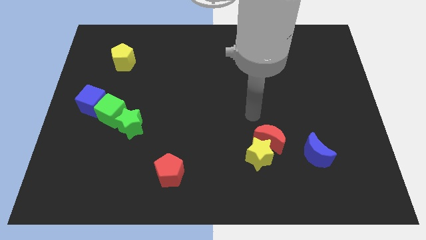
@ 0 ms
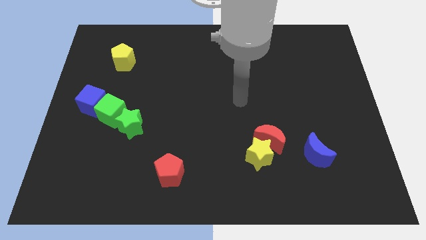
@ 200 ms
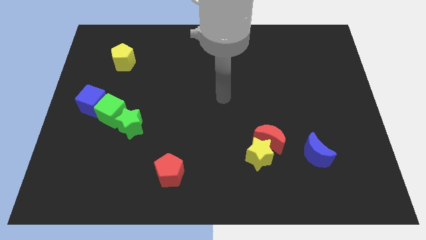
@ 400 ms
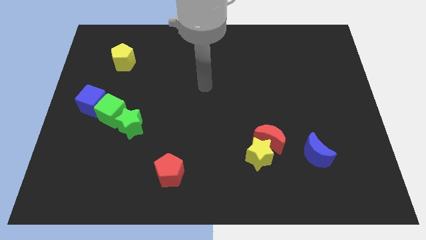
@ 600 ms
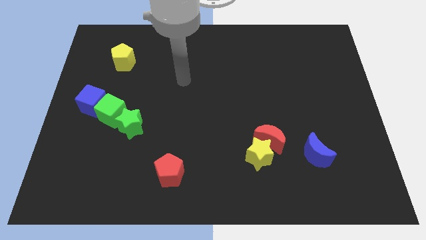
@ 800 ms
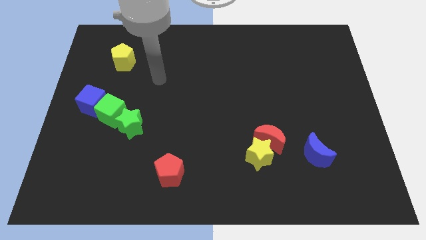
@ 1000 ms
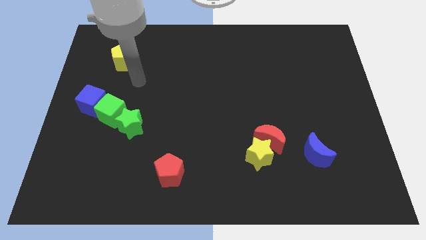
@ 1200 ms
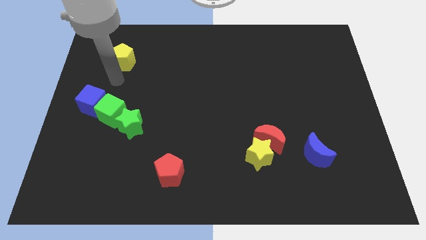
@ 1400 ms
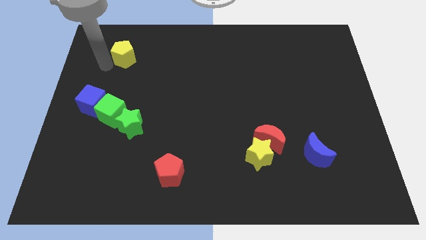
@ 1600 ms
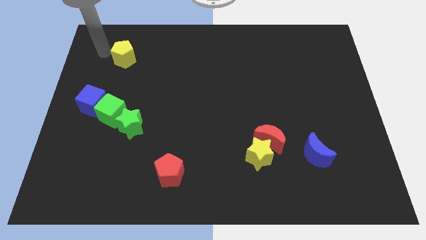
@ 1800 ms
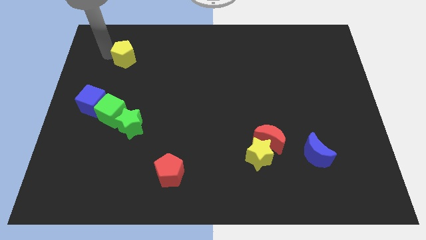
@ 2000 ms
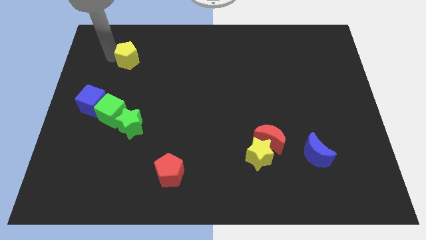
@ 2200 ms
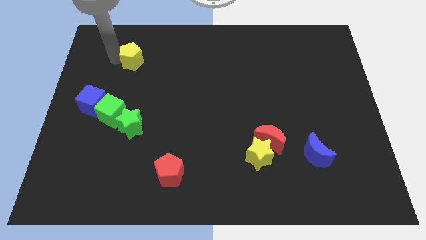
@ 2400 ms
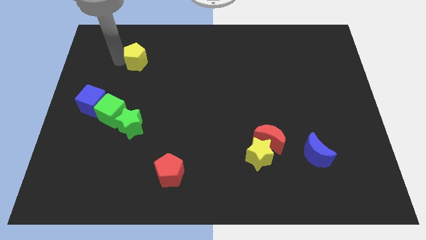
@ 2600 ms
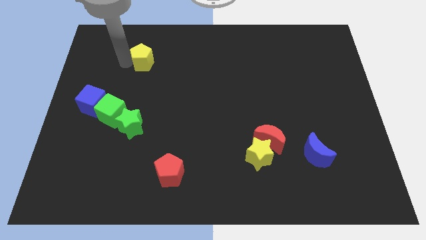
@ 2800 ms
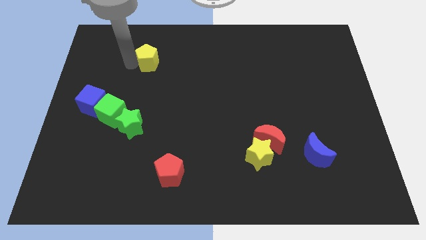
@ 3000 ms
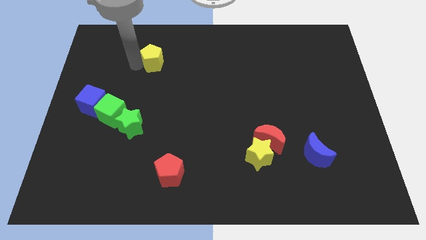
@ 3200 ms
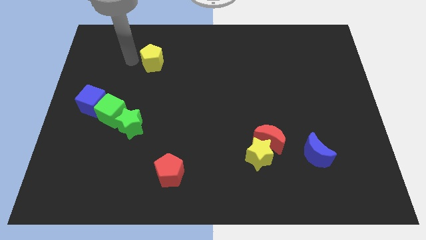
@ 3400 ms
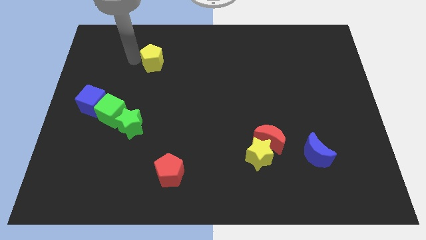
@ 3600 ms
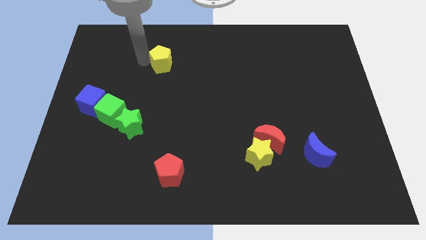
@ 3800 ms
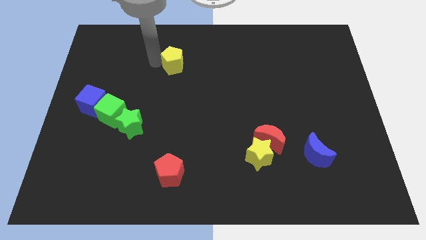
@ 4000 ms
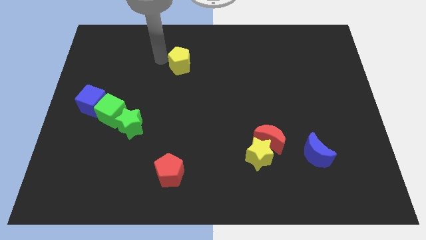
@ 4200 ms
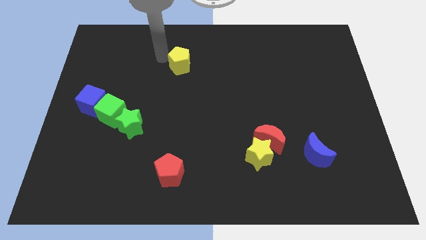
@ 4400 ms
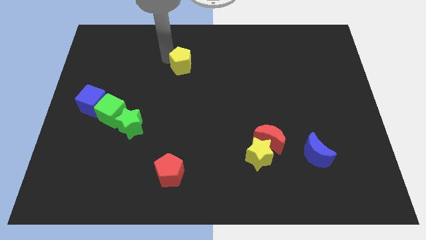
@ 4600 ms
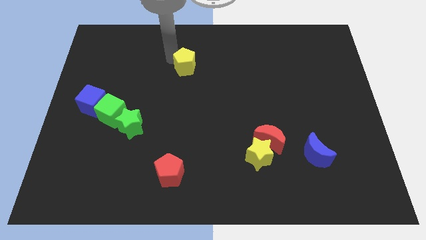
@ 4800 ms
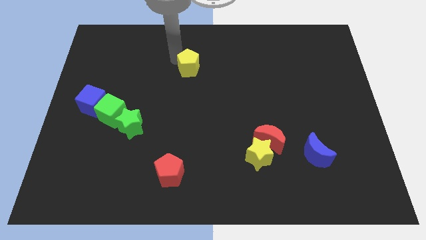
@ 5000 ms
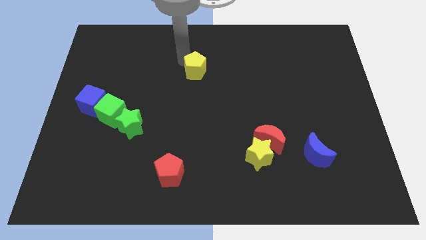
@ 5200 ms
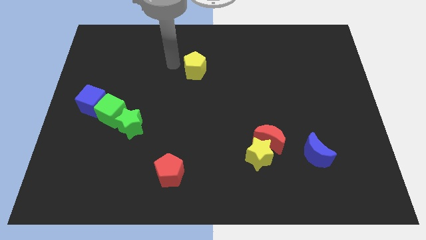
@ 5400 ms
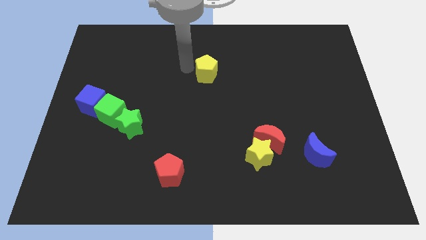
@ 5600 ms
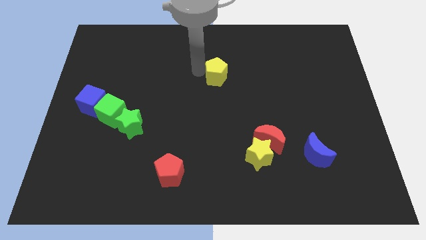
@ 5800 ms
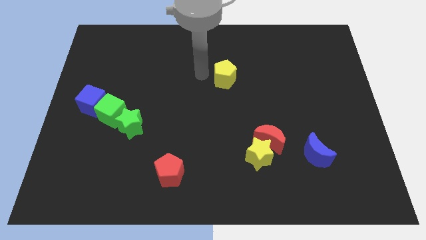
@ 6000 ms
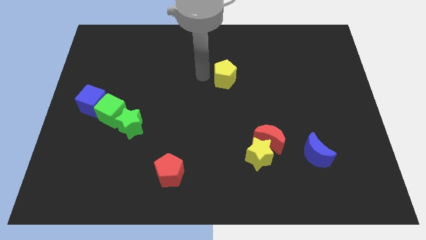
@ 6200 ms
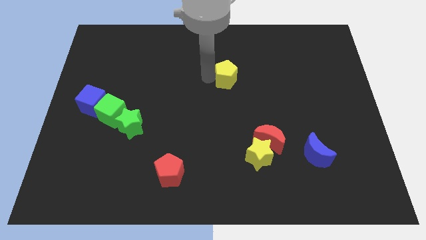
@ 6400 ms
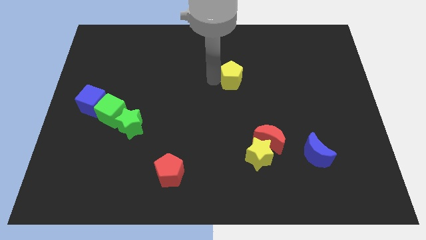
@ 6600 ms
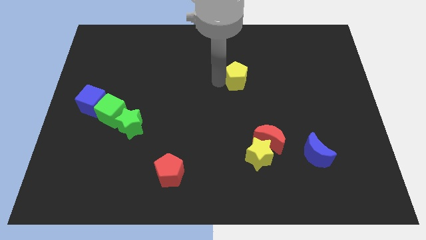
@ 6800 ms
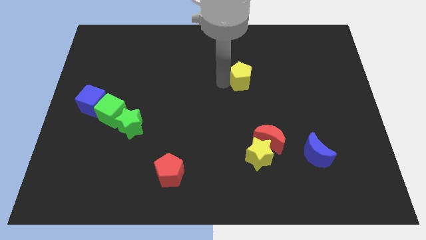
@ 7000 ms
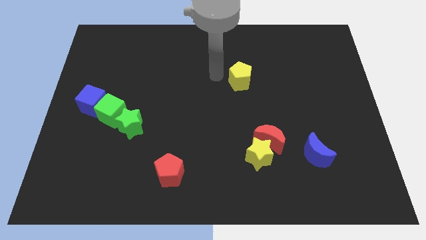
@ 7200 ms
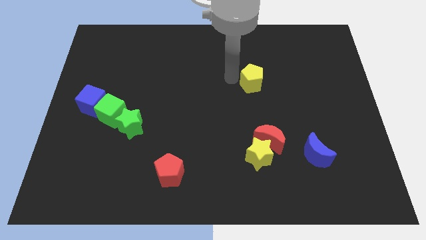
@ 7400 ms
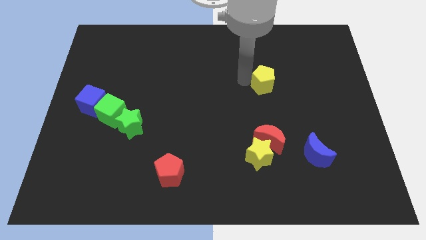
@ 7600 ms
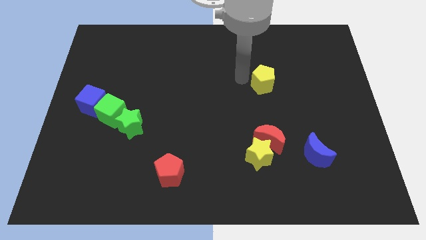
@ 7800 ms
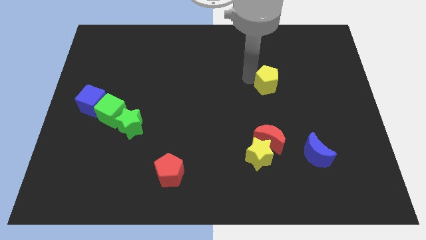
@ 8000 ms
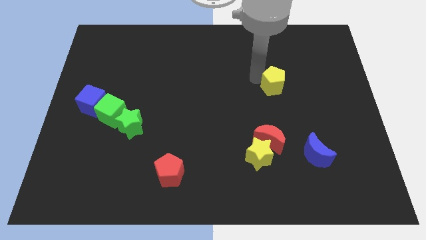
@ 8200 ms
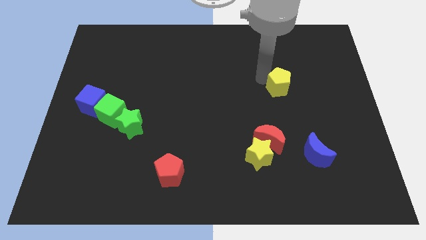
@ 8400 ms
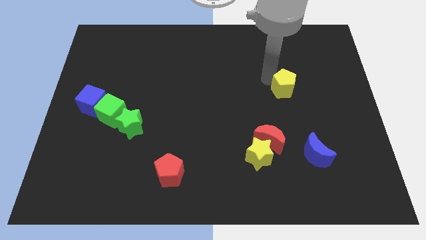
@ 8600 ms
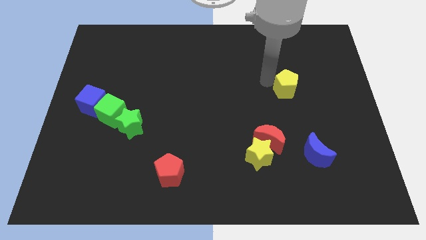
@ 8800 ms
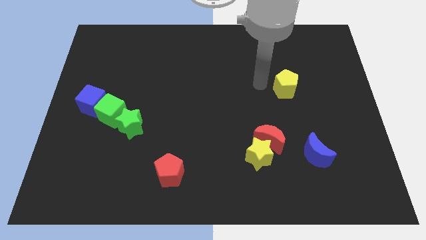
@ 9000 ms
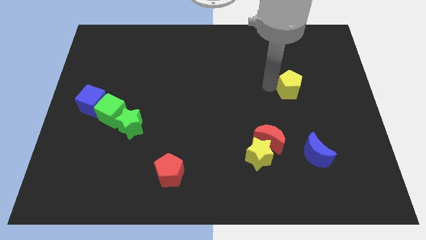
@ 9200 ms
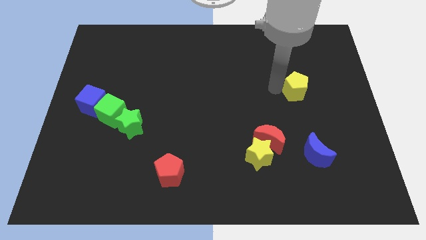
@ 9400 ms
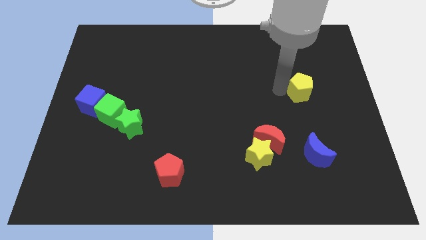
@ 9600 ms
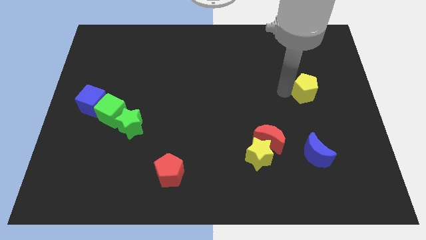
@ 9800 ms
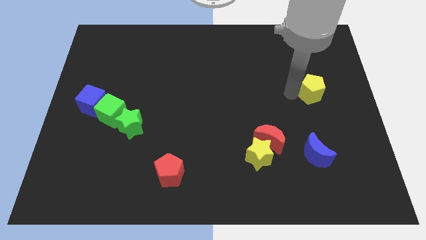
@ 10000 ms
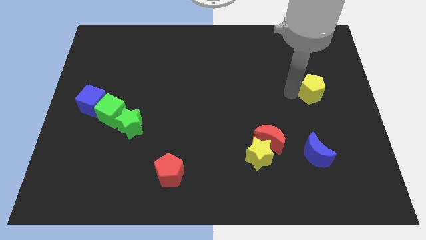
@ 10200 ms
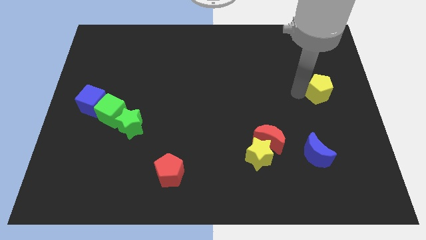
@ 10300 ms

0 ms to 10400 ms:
slide the yellow pentagon to the center right
